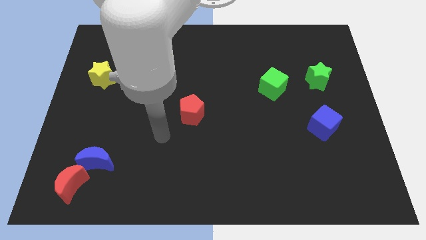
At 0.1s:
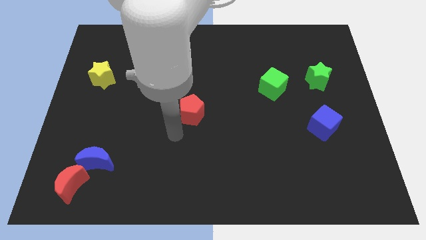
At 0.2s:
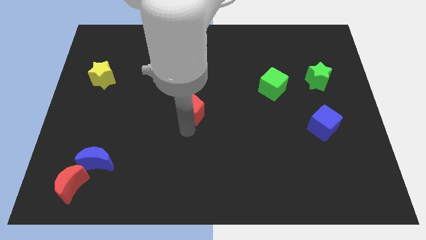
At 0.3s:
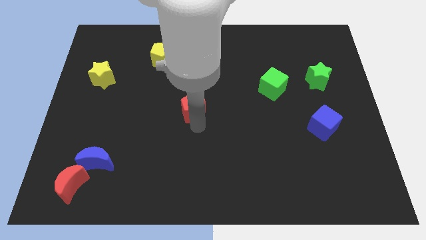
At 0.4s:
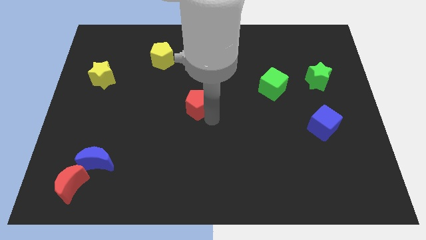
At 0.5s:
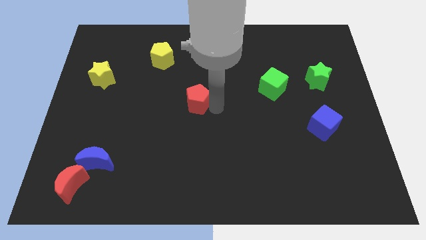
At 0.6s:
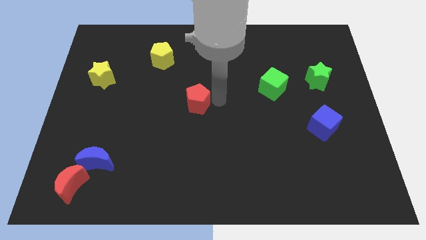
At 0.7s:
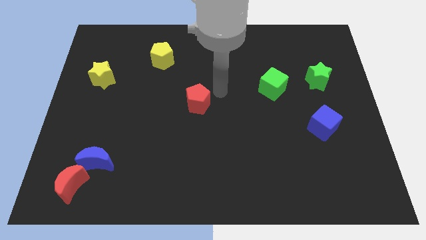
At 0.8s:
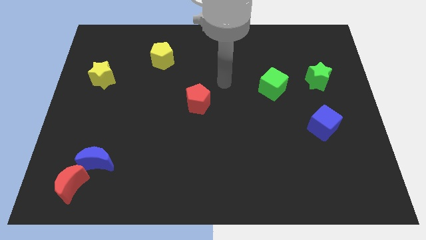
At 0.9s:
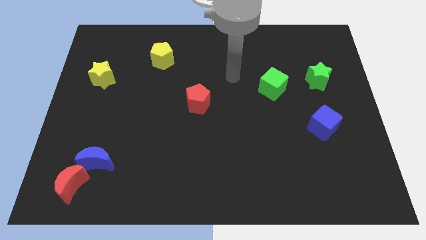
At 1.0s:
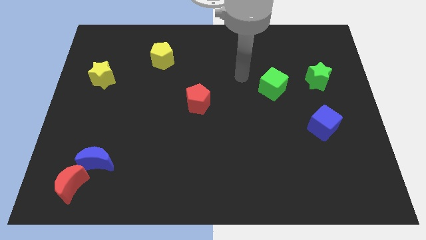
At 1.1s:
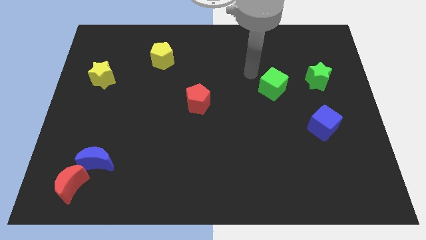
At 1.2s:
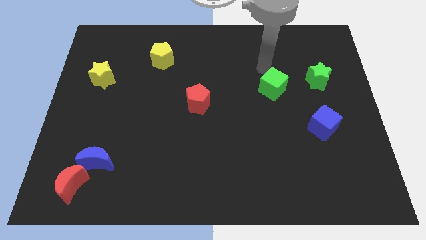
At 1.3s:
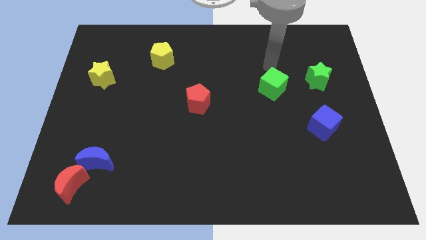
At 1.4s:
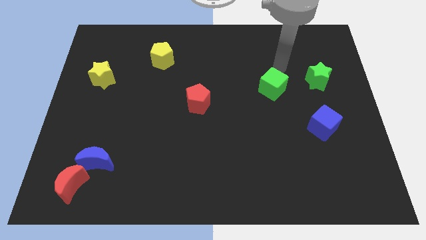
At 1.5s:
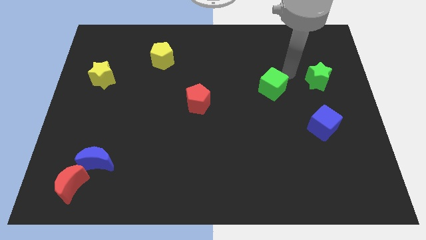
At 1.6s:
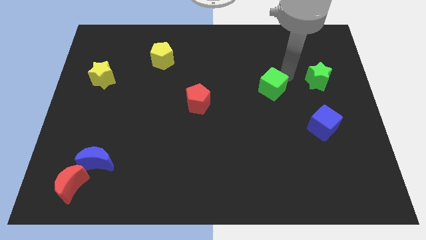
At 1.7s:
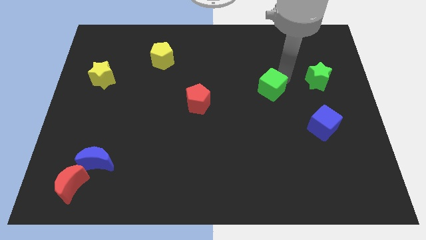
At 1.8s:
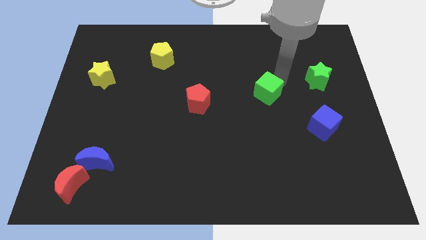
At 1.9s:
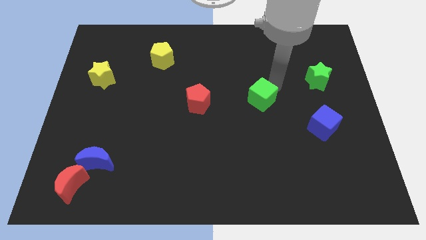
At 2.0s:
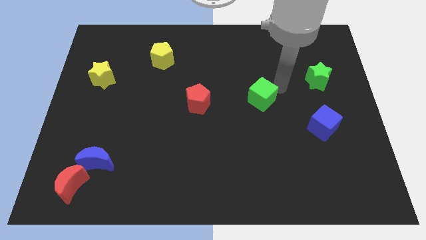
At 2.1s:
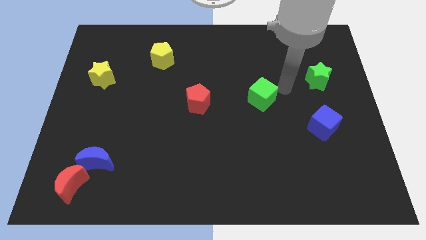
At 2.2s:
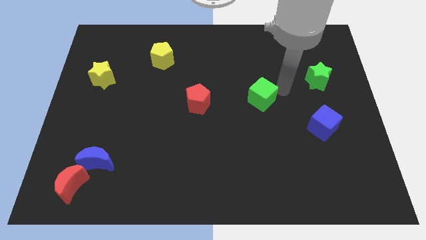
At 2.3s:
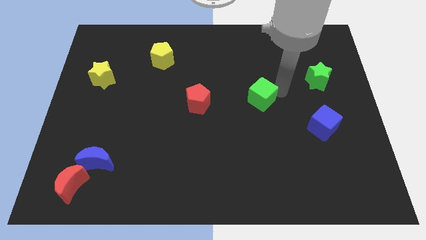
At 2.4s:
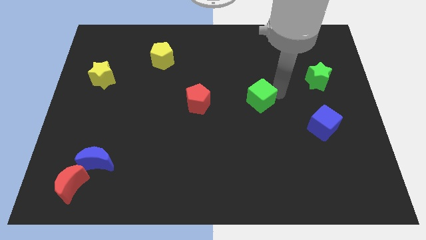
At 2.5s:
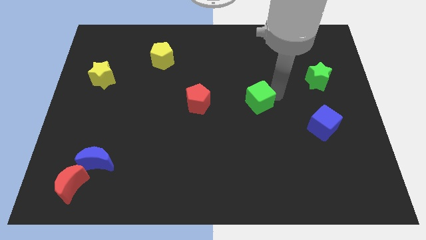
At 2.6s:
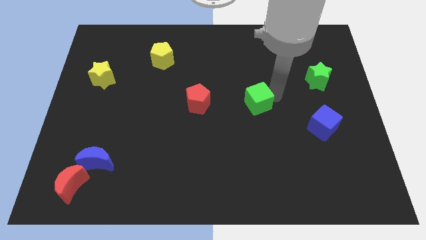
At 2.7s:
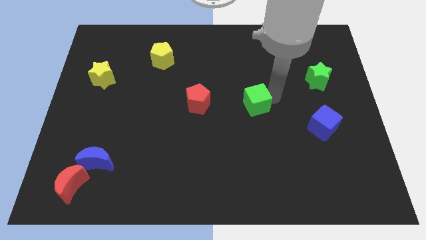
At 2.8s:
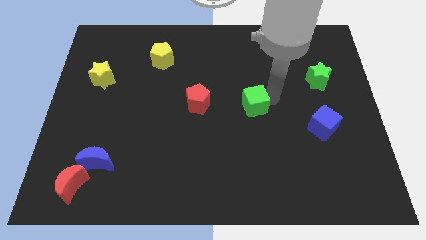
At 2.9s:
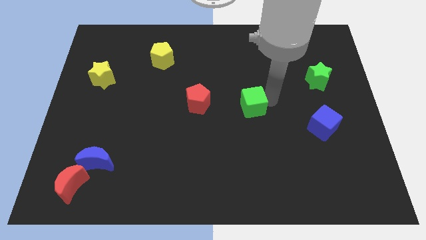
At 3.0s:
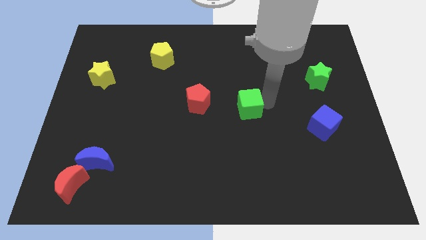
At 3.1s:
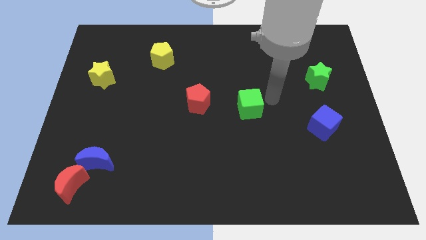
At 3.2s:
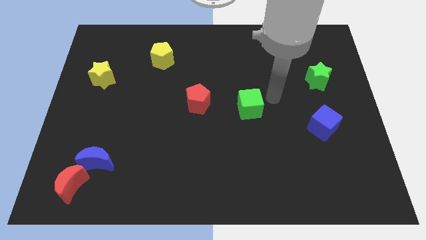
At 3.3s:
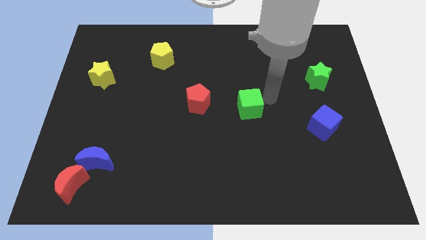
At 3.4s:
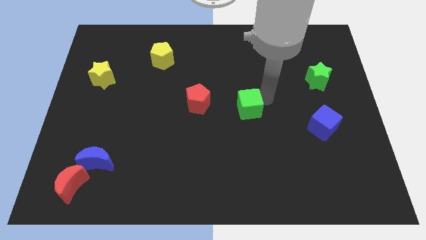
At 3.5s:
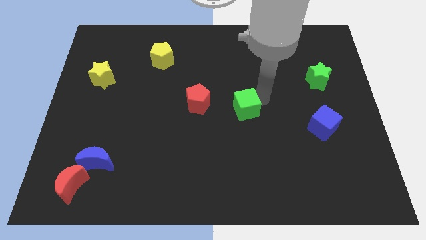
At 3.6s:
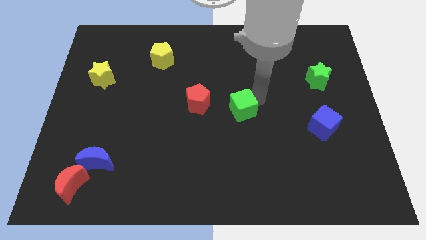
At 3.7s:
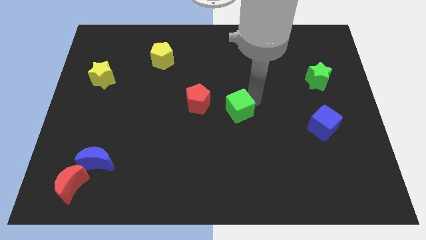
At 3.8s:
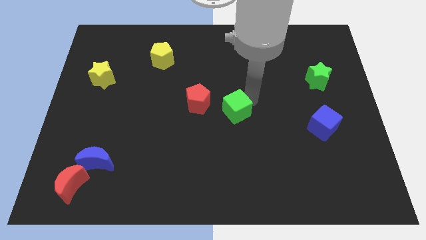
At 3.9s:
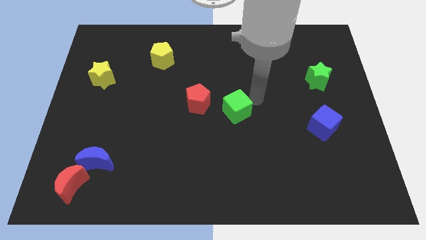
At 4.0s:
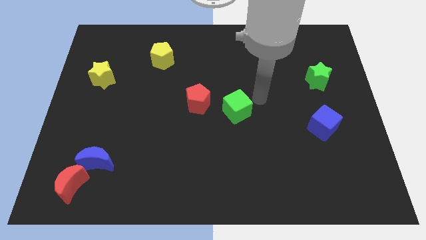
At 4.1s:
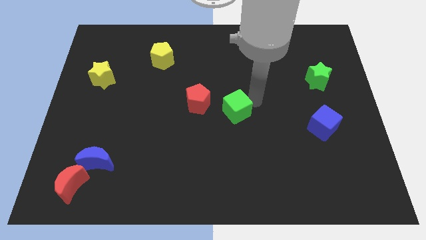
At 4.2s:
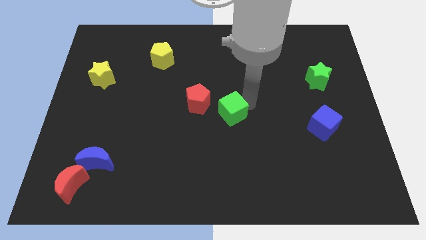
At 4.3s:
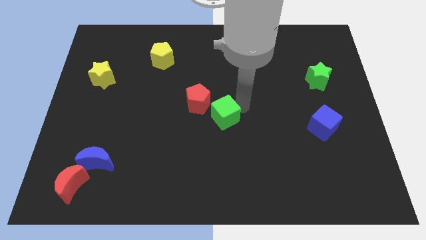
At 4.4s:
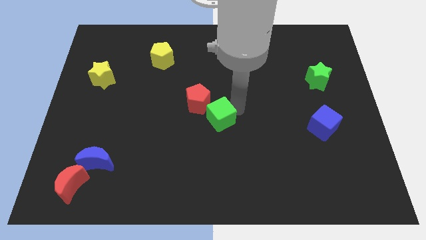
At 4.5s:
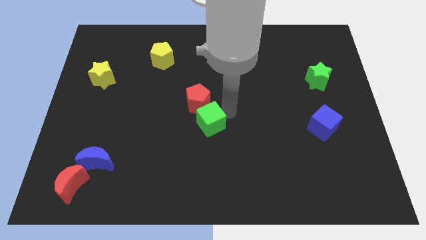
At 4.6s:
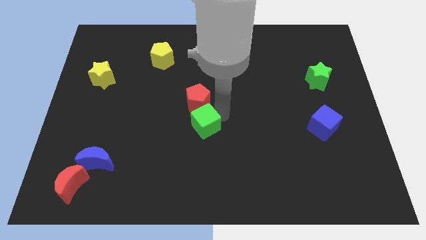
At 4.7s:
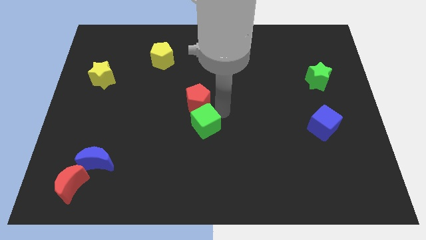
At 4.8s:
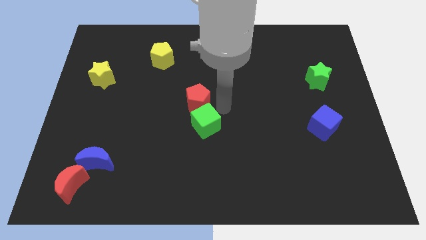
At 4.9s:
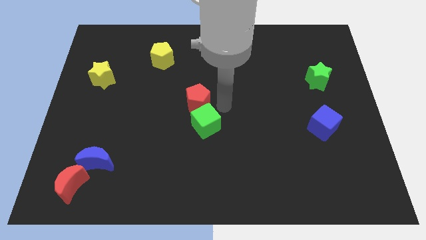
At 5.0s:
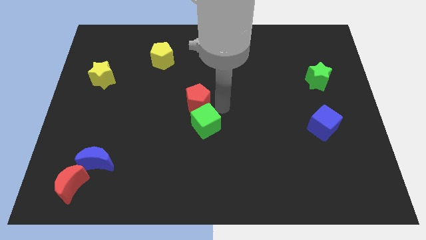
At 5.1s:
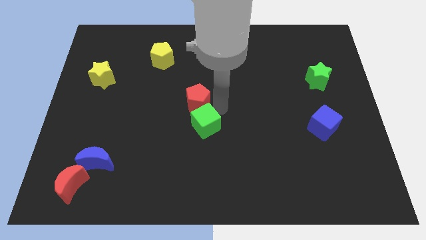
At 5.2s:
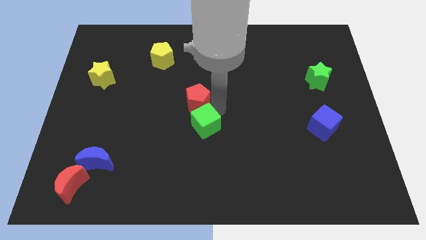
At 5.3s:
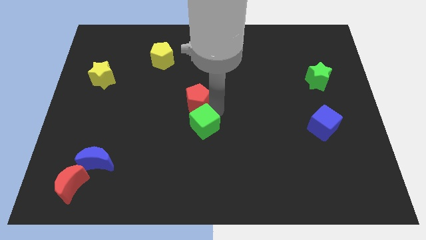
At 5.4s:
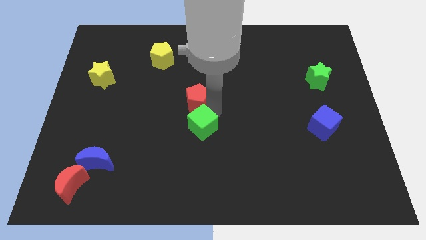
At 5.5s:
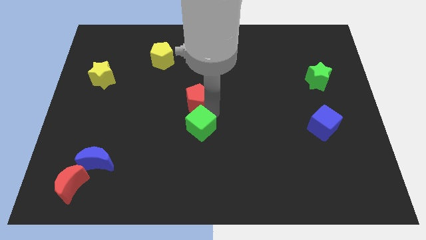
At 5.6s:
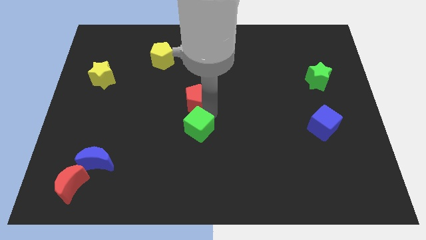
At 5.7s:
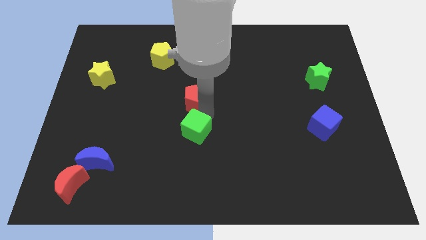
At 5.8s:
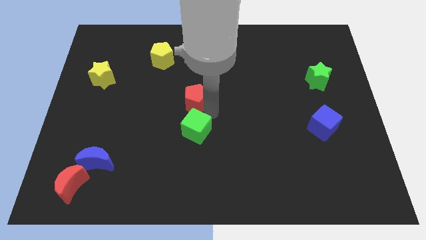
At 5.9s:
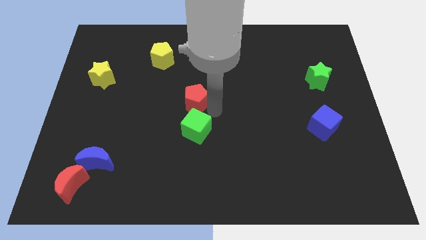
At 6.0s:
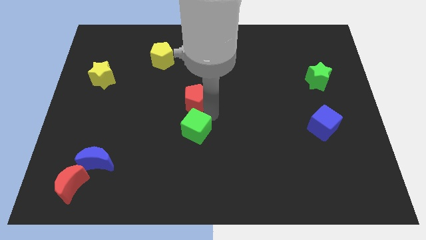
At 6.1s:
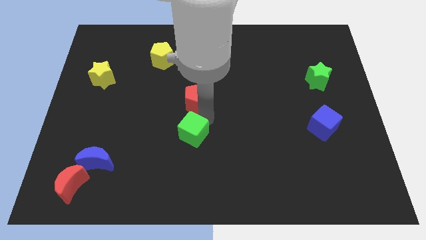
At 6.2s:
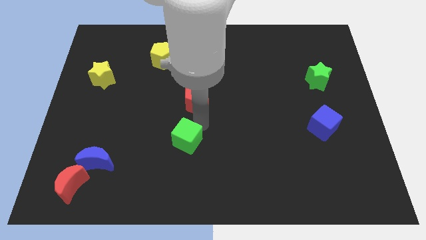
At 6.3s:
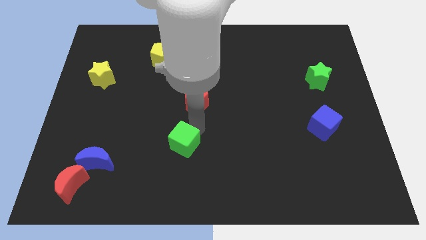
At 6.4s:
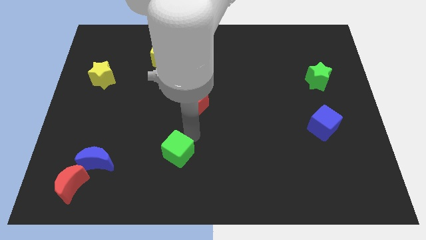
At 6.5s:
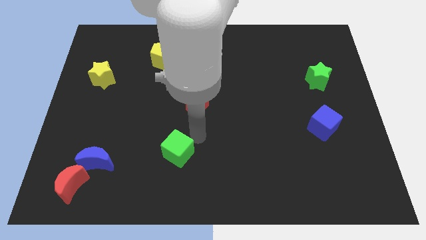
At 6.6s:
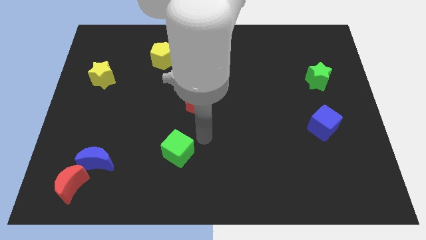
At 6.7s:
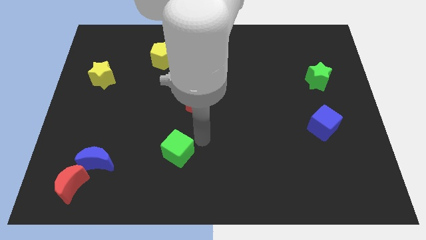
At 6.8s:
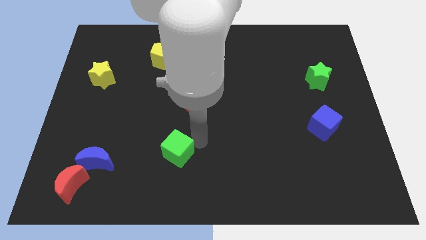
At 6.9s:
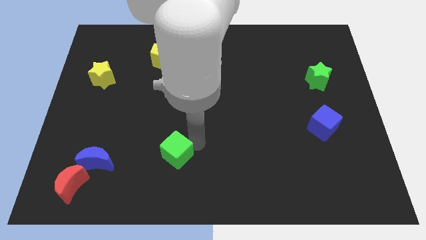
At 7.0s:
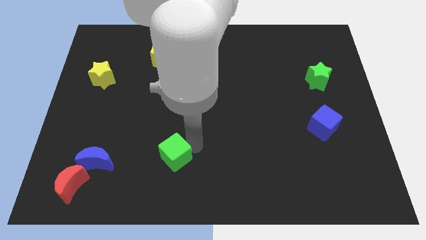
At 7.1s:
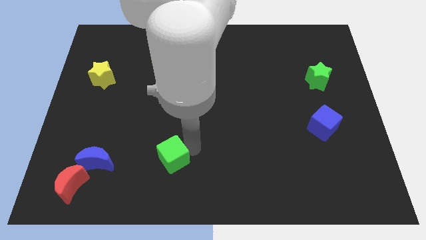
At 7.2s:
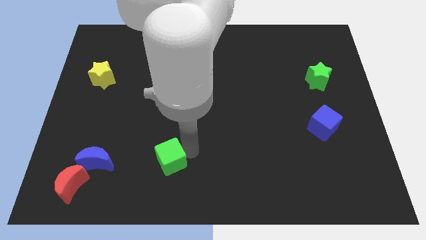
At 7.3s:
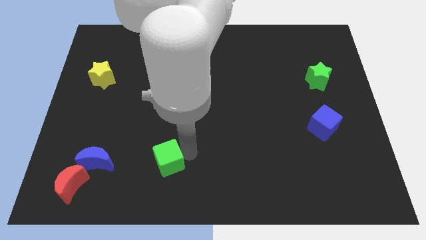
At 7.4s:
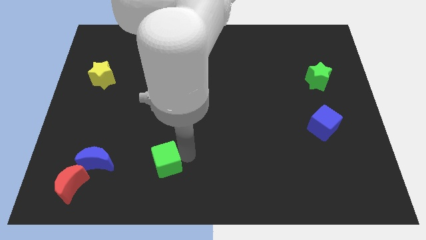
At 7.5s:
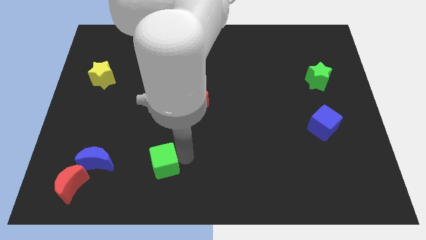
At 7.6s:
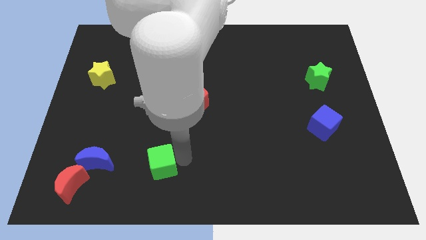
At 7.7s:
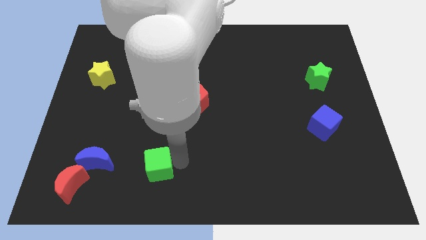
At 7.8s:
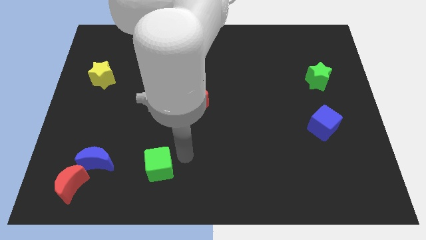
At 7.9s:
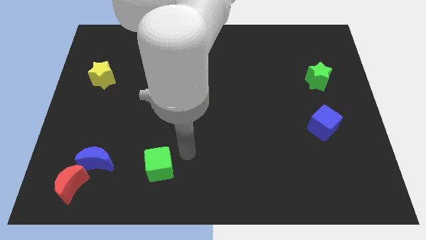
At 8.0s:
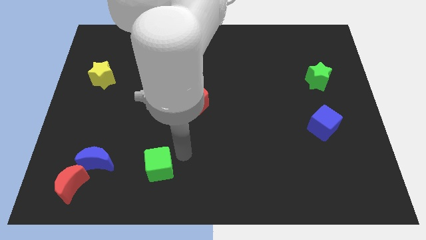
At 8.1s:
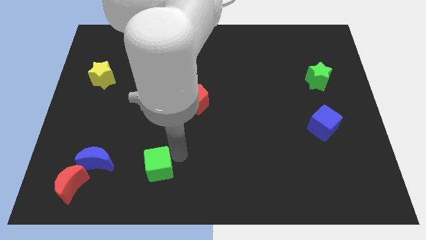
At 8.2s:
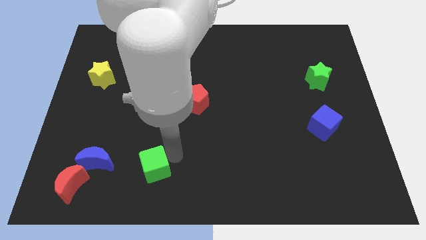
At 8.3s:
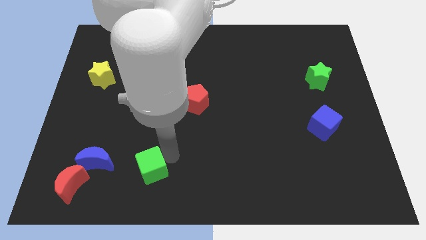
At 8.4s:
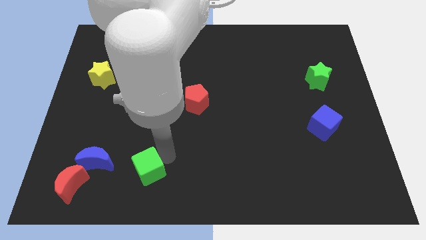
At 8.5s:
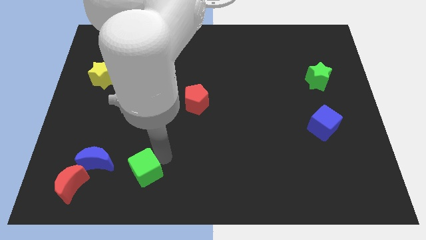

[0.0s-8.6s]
push the green cube just right of the red moon
